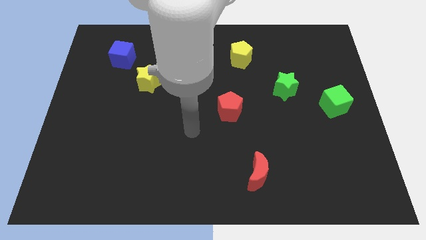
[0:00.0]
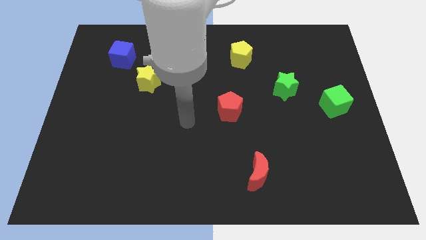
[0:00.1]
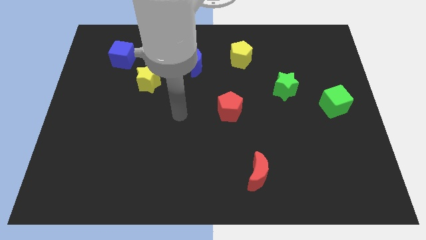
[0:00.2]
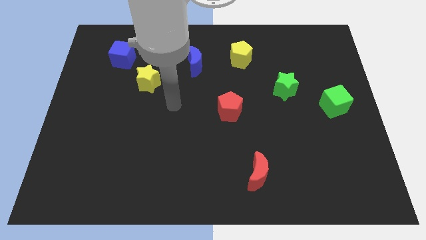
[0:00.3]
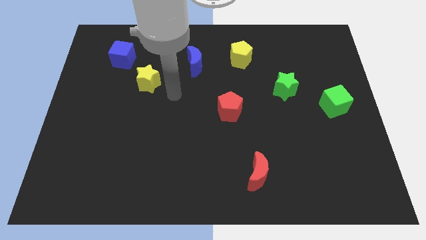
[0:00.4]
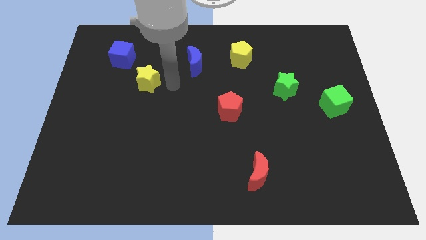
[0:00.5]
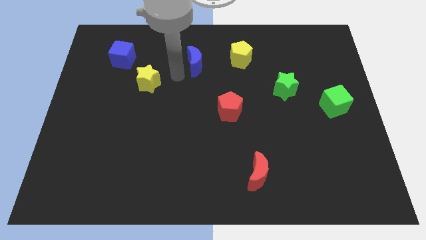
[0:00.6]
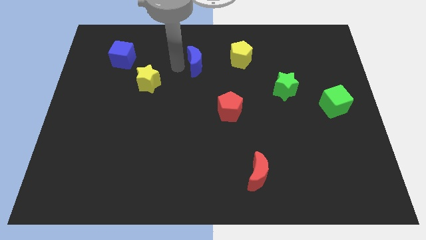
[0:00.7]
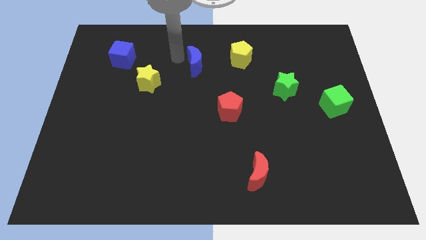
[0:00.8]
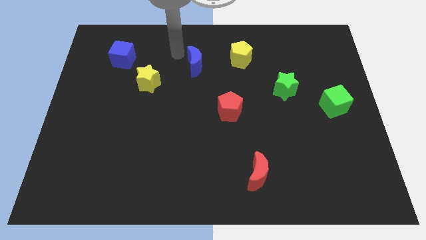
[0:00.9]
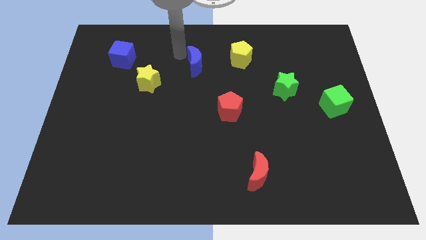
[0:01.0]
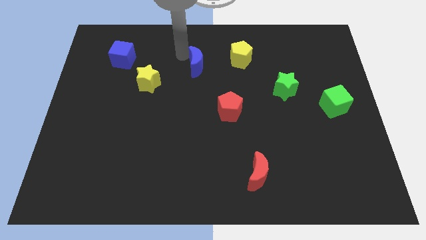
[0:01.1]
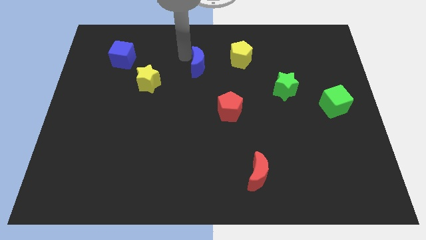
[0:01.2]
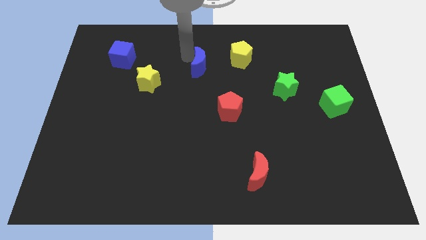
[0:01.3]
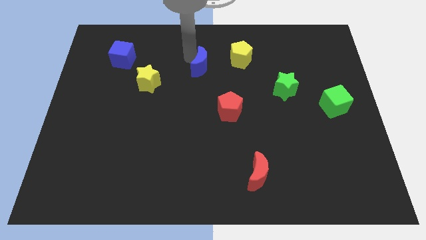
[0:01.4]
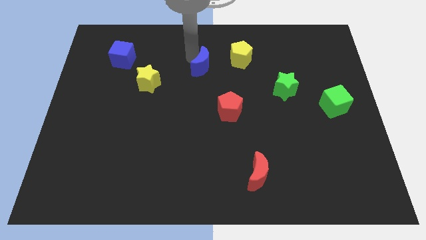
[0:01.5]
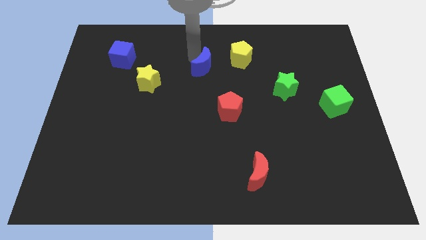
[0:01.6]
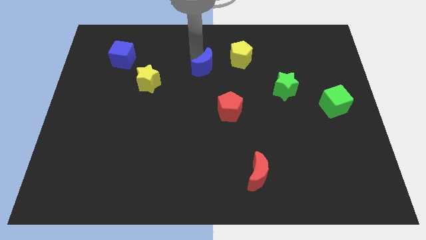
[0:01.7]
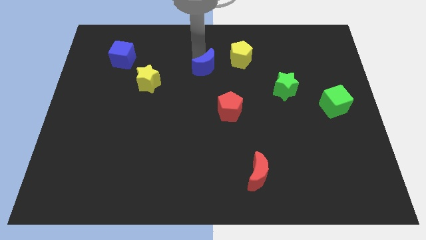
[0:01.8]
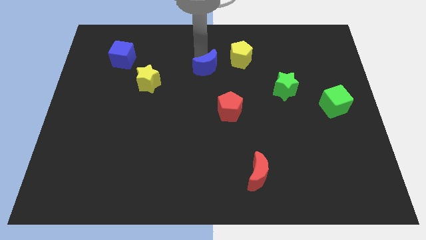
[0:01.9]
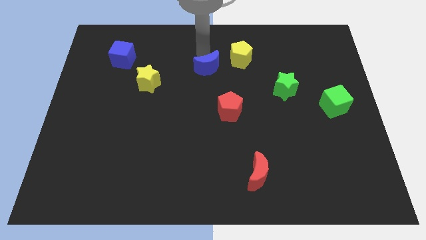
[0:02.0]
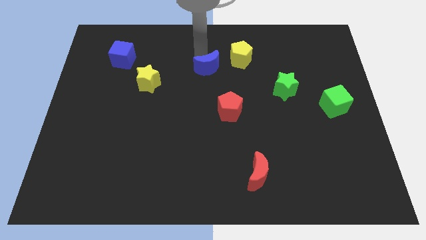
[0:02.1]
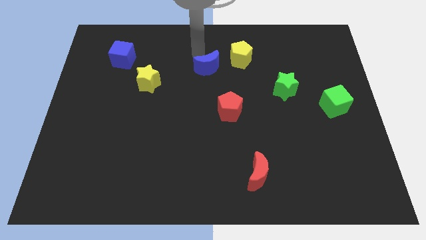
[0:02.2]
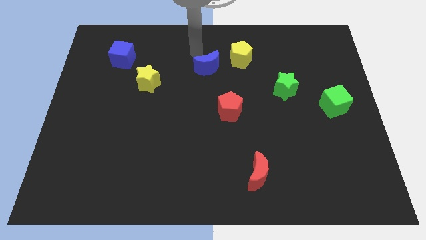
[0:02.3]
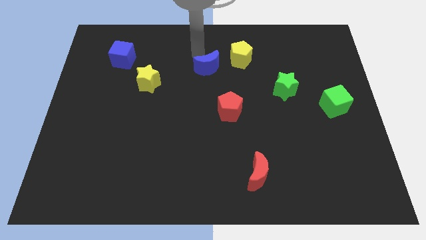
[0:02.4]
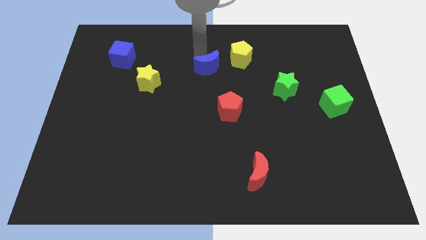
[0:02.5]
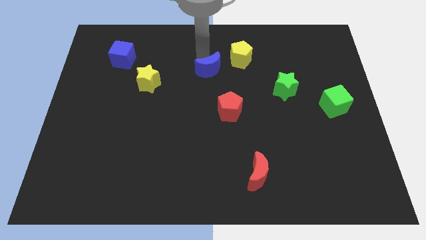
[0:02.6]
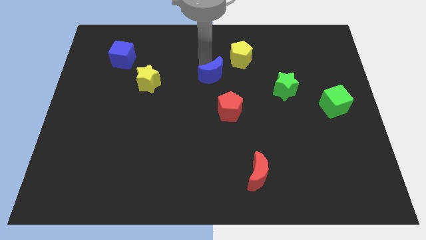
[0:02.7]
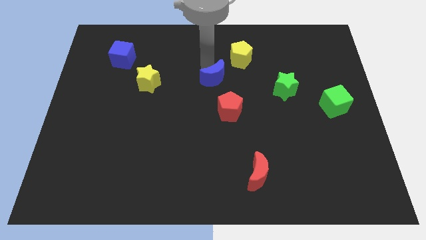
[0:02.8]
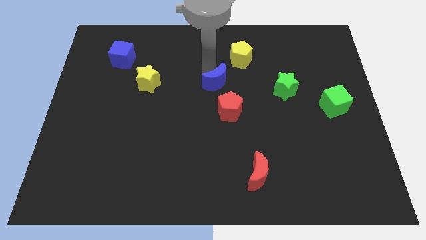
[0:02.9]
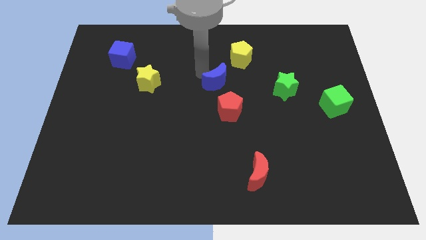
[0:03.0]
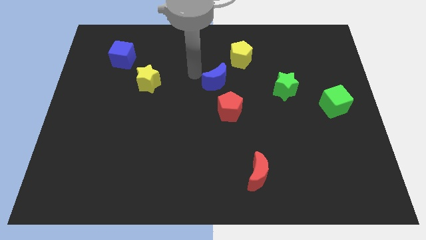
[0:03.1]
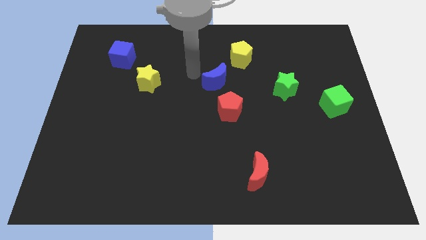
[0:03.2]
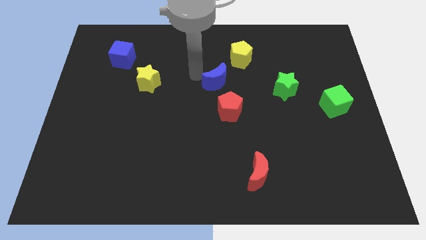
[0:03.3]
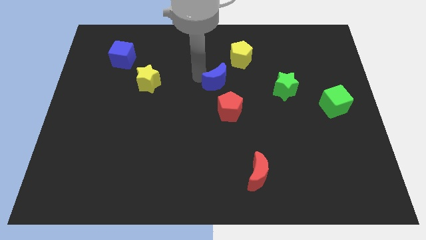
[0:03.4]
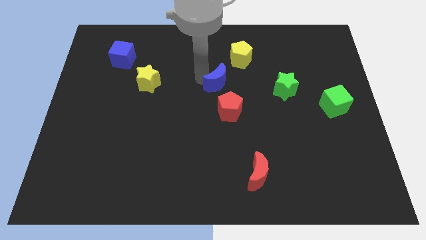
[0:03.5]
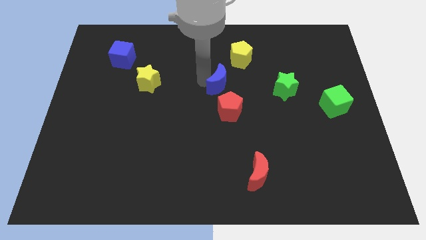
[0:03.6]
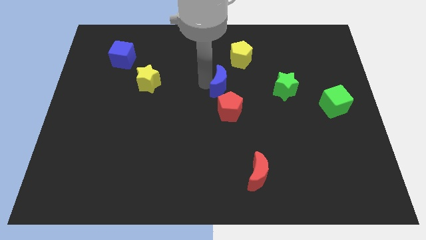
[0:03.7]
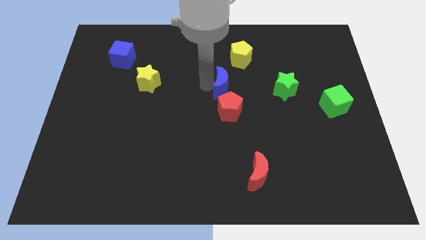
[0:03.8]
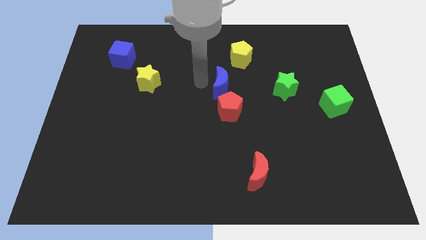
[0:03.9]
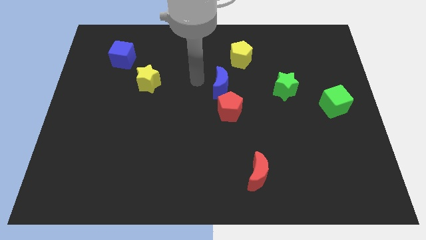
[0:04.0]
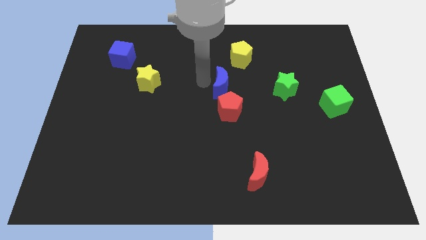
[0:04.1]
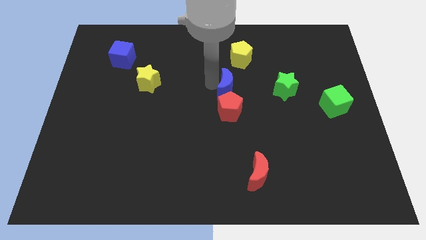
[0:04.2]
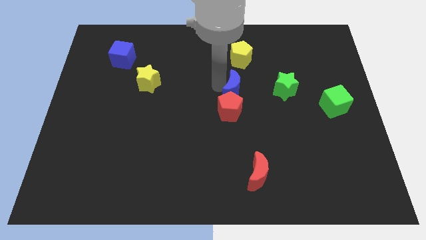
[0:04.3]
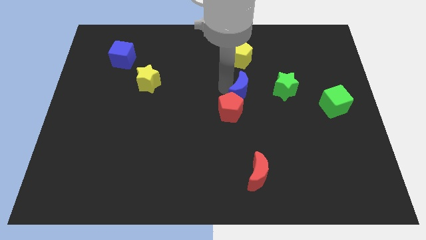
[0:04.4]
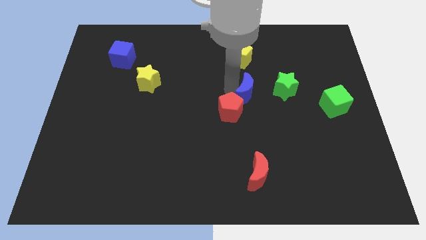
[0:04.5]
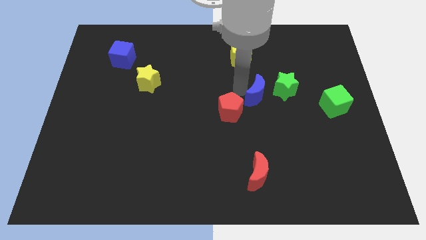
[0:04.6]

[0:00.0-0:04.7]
push the blue moon just right of the red pentagon

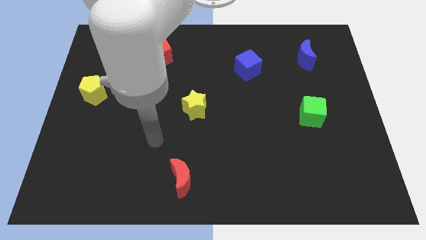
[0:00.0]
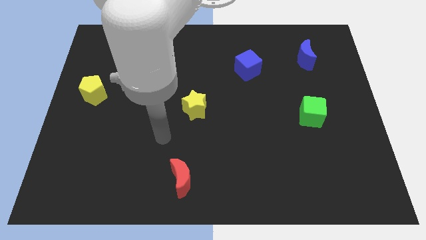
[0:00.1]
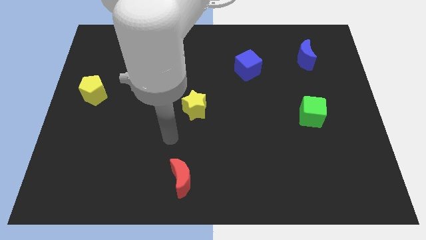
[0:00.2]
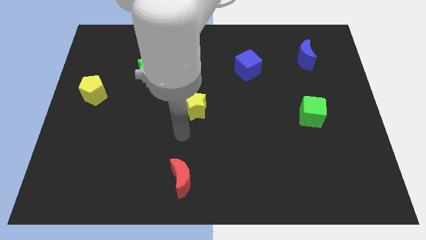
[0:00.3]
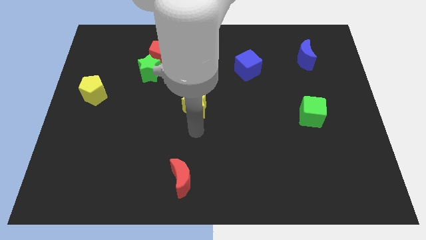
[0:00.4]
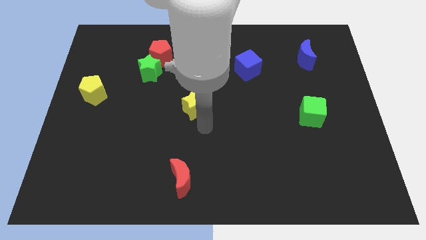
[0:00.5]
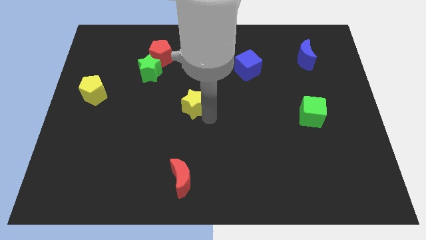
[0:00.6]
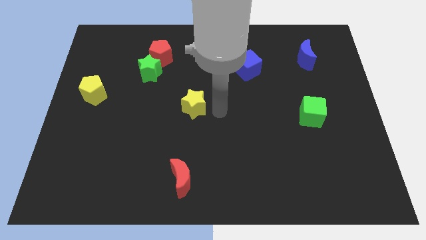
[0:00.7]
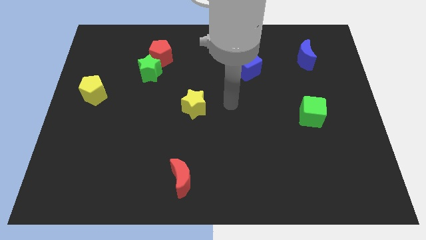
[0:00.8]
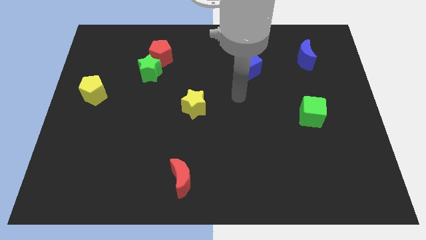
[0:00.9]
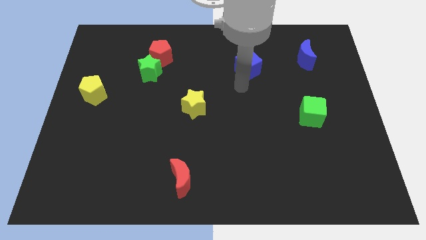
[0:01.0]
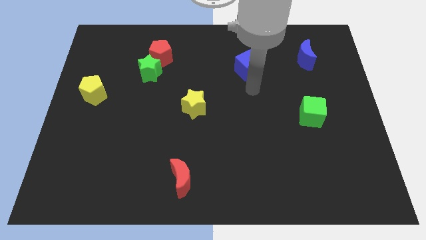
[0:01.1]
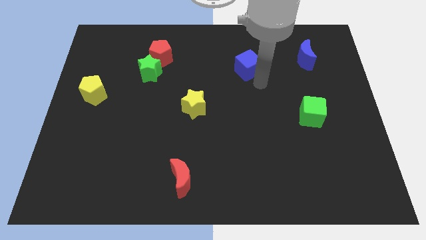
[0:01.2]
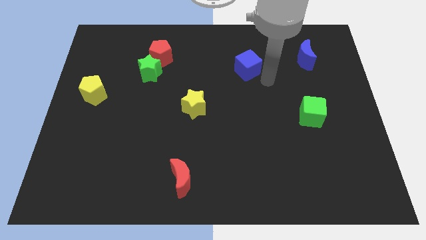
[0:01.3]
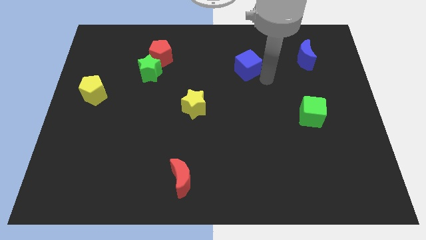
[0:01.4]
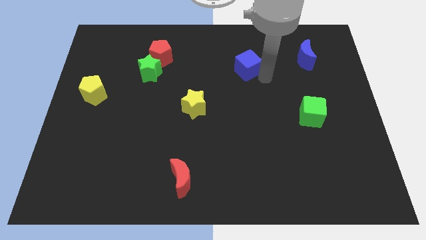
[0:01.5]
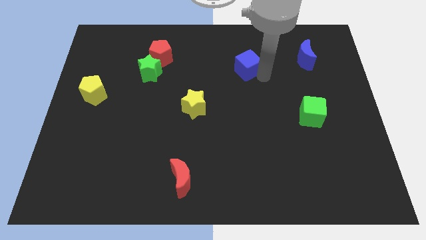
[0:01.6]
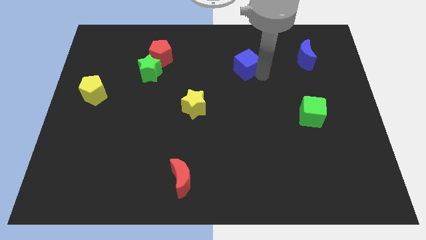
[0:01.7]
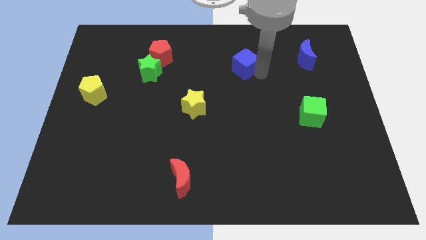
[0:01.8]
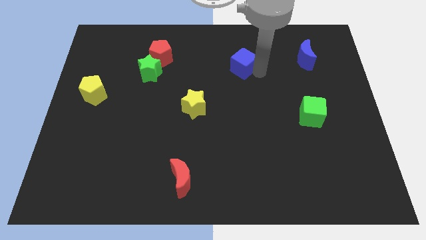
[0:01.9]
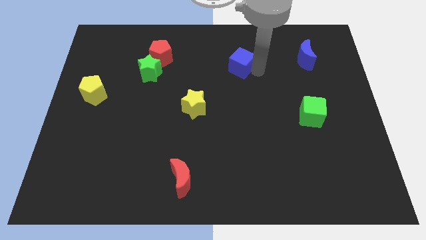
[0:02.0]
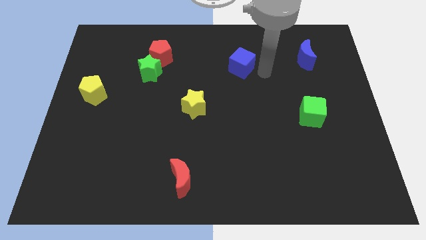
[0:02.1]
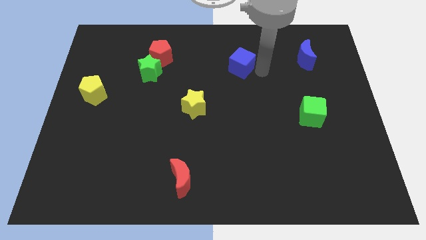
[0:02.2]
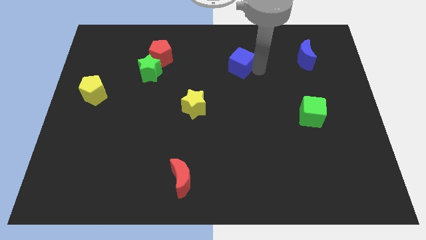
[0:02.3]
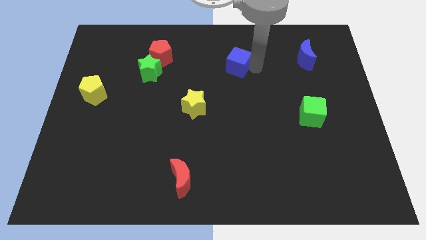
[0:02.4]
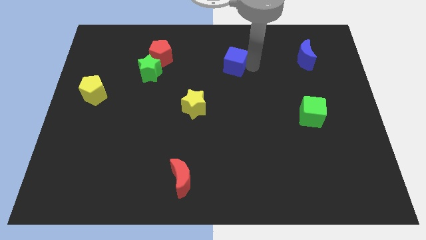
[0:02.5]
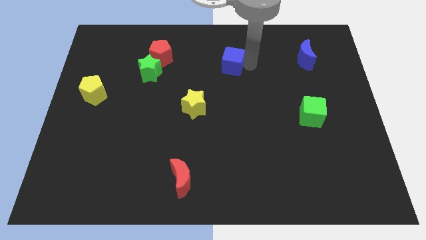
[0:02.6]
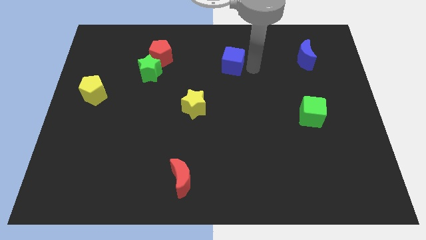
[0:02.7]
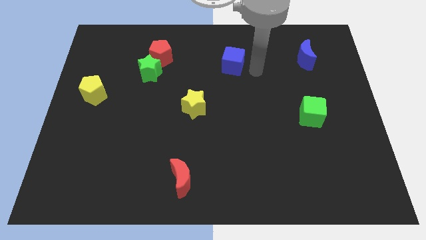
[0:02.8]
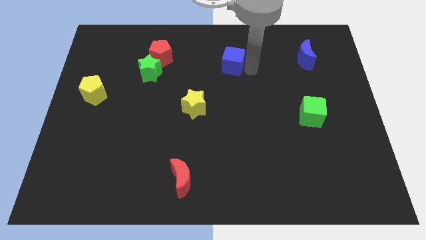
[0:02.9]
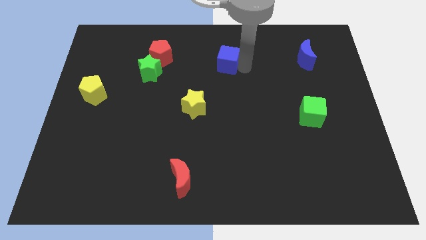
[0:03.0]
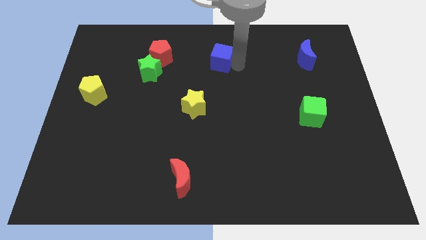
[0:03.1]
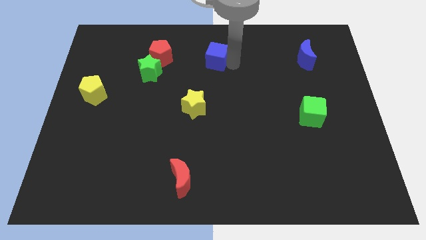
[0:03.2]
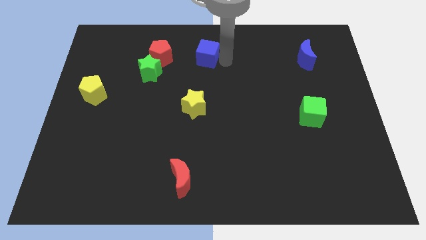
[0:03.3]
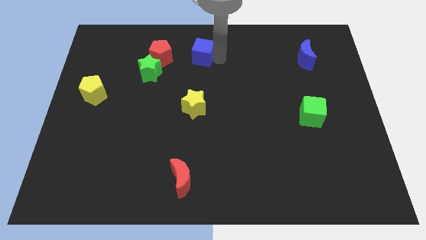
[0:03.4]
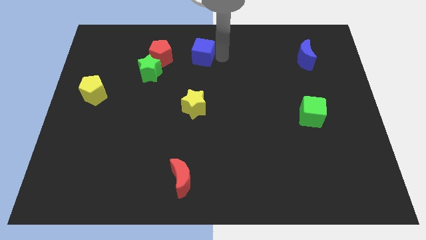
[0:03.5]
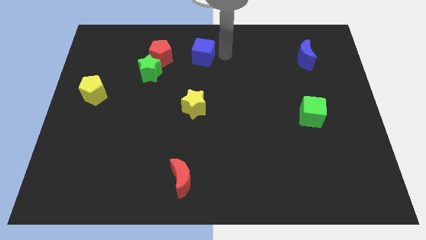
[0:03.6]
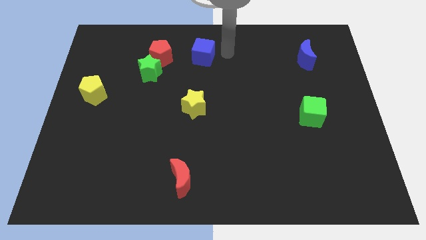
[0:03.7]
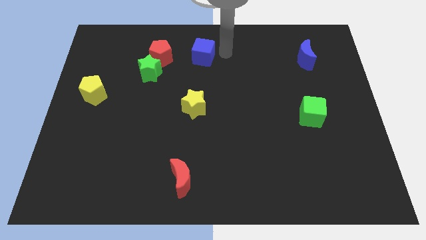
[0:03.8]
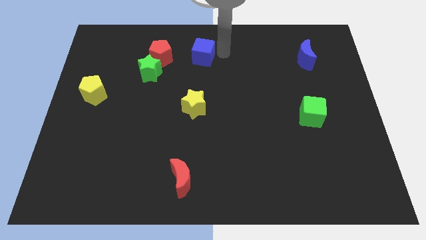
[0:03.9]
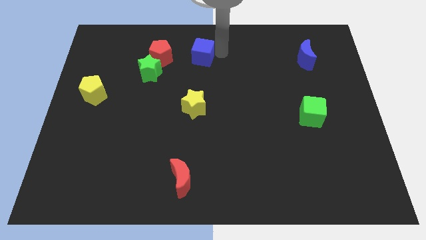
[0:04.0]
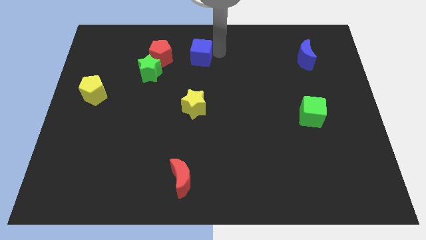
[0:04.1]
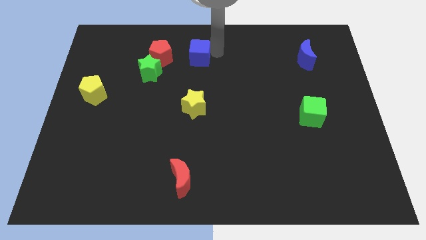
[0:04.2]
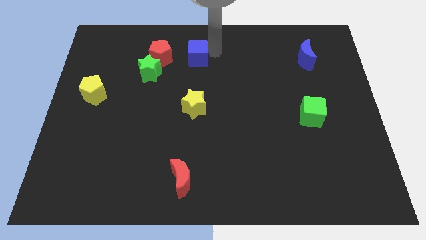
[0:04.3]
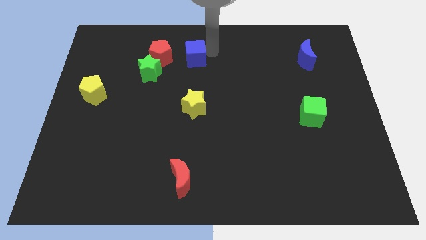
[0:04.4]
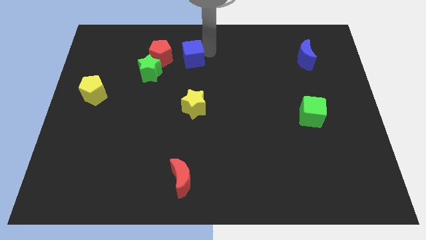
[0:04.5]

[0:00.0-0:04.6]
put the blue cube diagonally up and to the right of the green star
